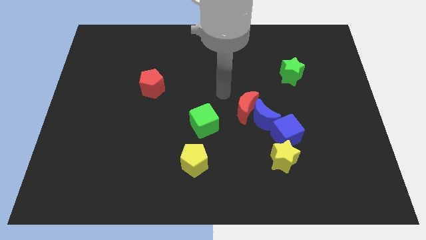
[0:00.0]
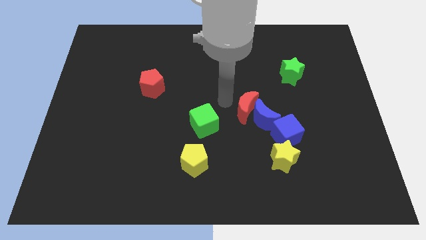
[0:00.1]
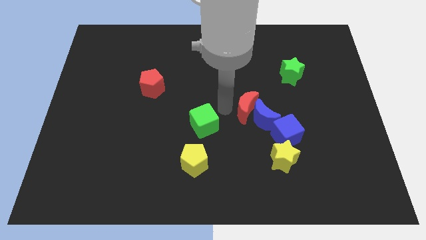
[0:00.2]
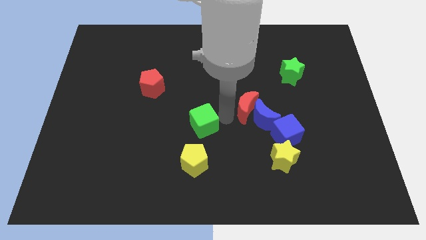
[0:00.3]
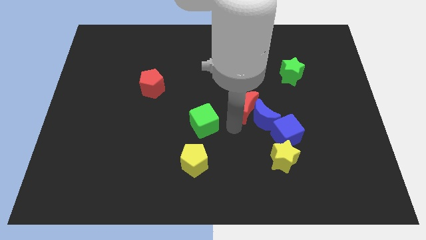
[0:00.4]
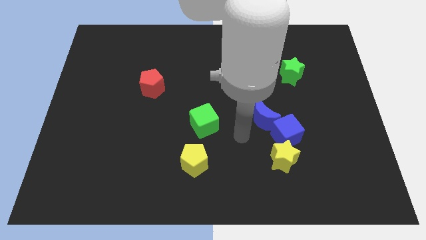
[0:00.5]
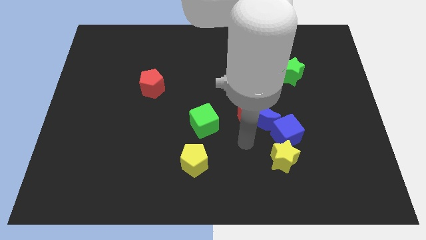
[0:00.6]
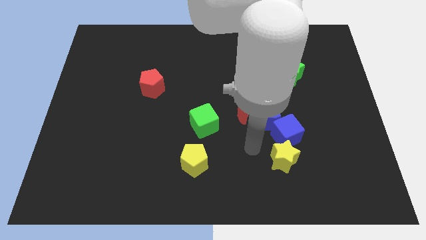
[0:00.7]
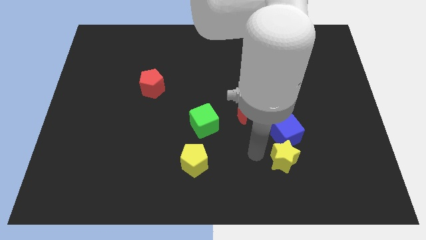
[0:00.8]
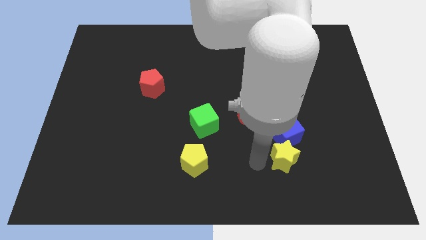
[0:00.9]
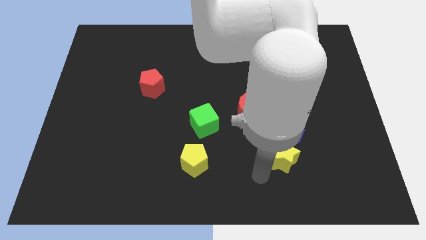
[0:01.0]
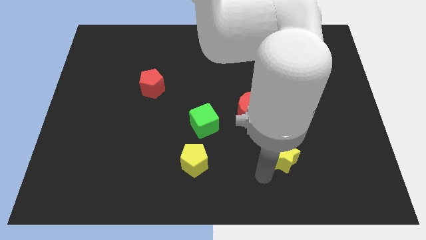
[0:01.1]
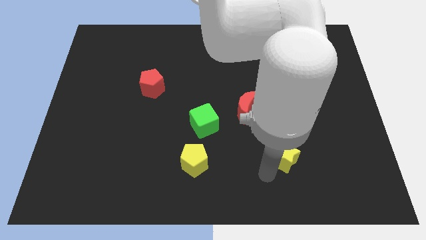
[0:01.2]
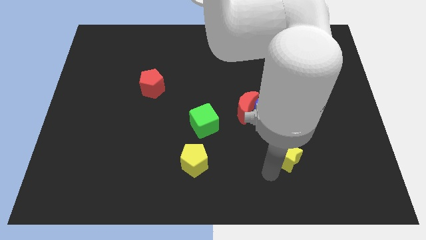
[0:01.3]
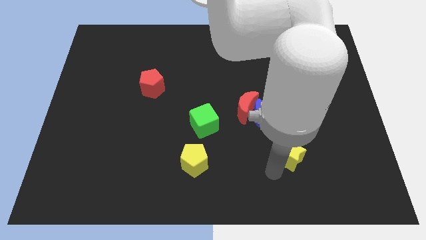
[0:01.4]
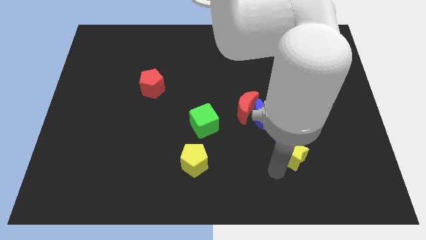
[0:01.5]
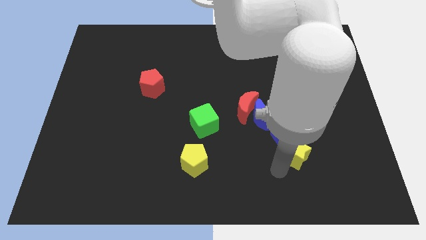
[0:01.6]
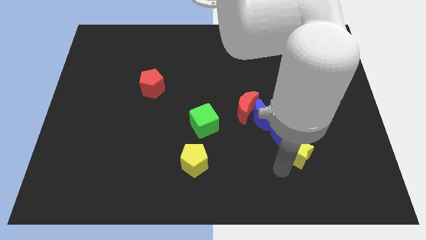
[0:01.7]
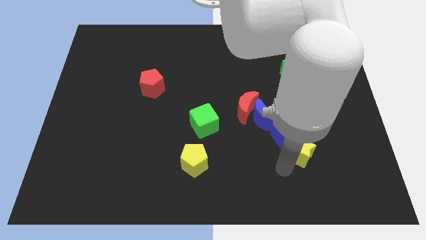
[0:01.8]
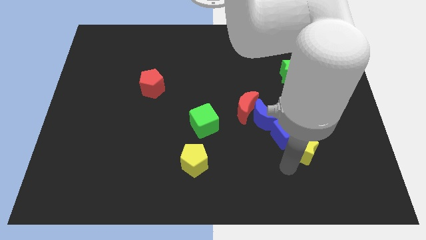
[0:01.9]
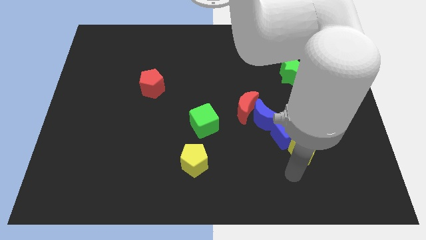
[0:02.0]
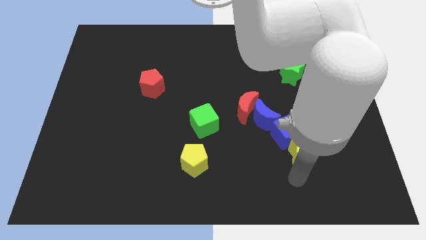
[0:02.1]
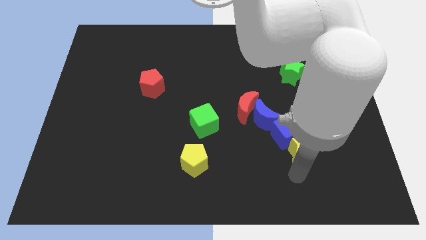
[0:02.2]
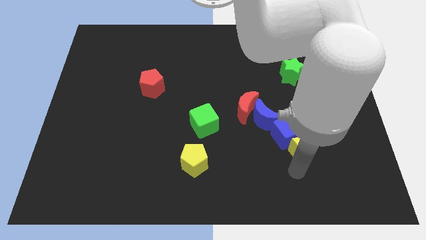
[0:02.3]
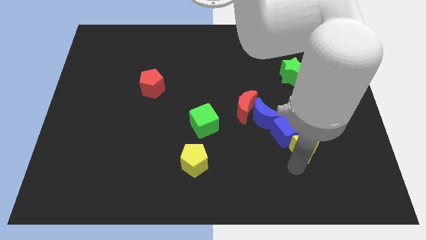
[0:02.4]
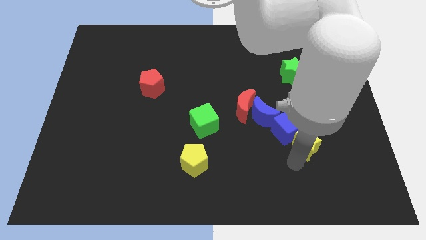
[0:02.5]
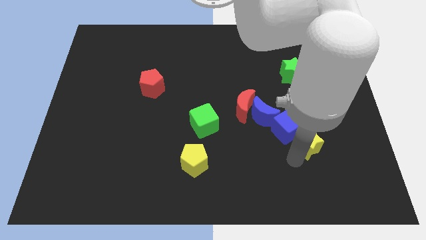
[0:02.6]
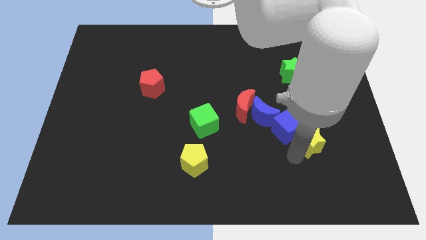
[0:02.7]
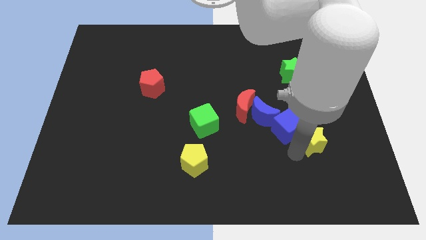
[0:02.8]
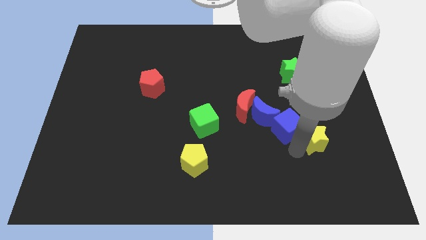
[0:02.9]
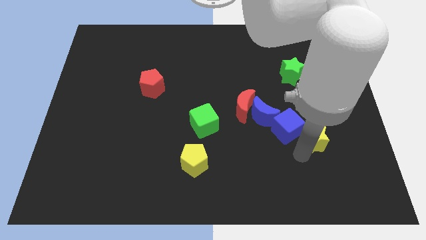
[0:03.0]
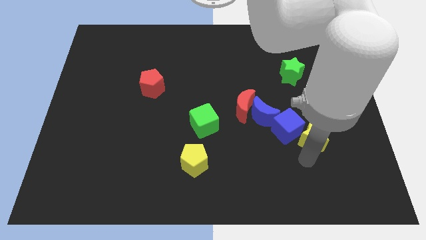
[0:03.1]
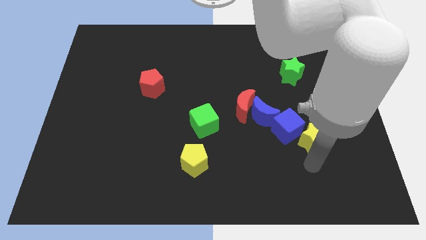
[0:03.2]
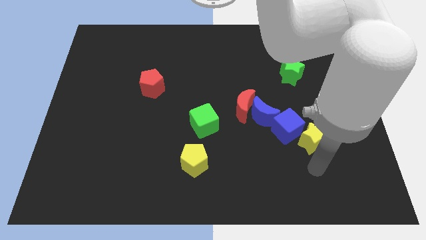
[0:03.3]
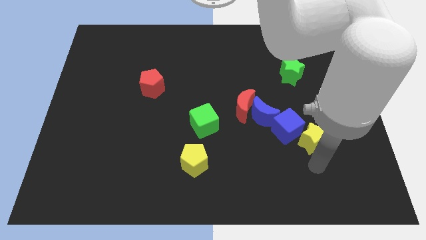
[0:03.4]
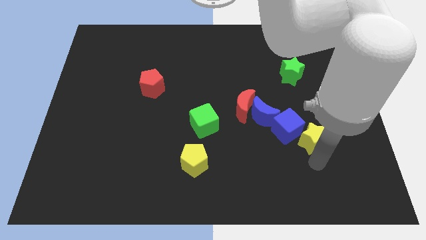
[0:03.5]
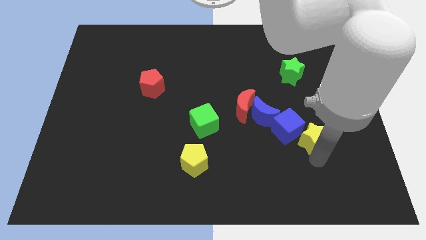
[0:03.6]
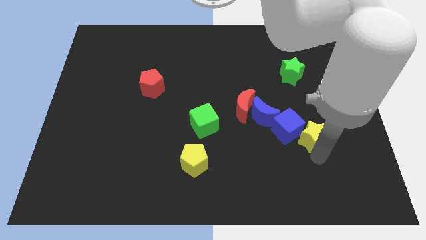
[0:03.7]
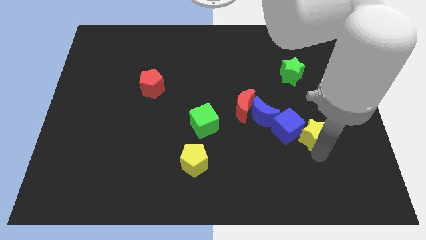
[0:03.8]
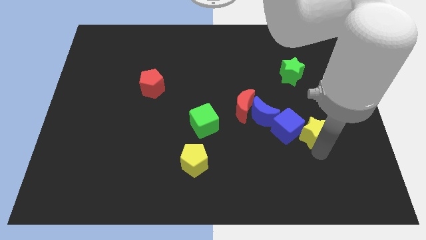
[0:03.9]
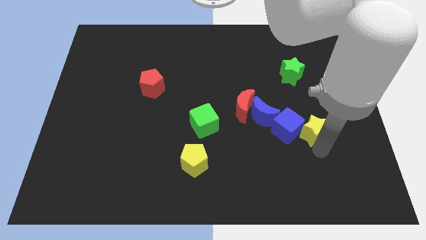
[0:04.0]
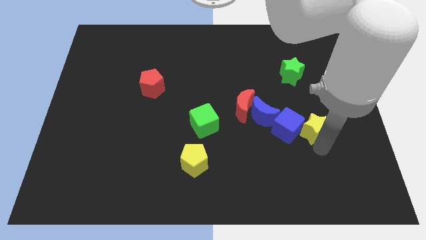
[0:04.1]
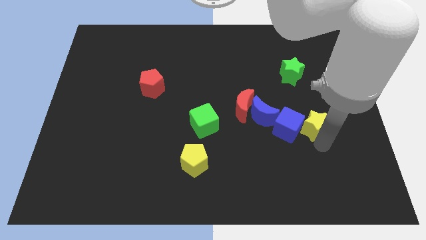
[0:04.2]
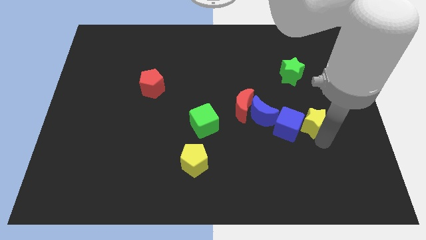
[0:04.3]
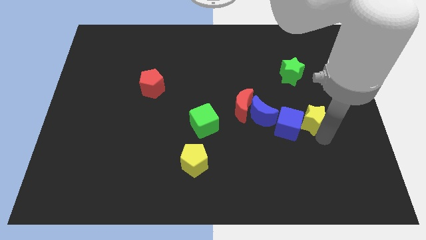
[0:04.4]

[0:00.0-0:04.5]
push the yellow star a little bit upwards

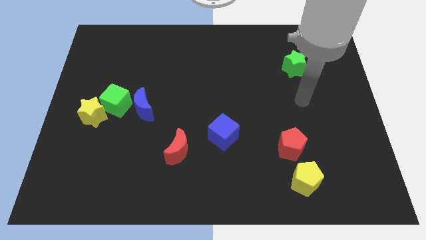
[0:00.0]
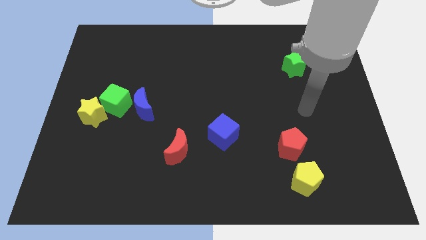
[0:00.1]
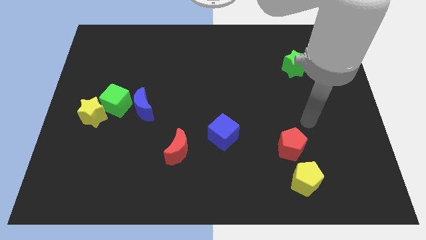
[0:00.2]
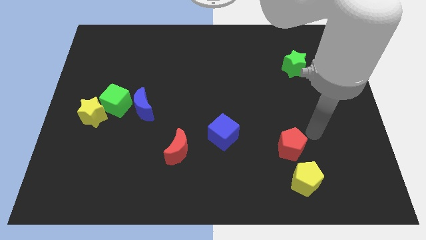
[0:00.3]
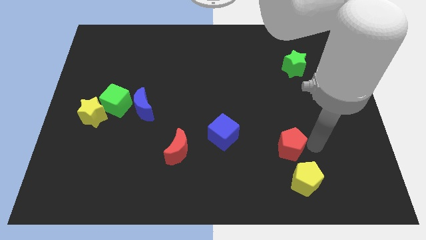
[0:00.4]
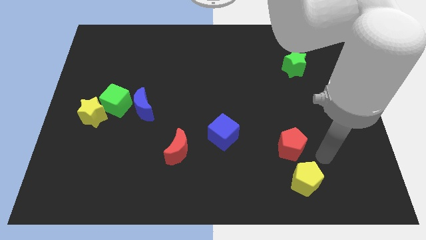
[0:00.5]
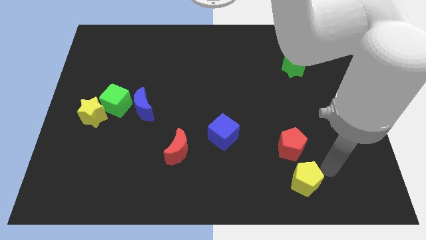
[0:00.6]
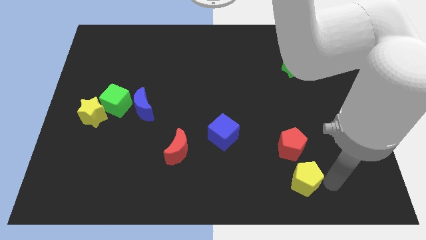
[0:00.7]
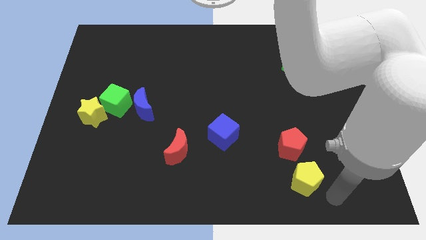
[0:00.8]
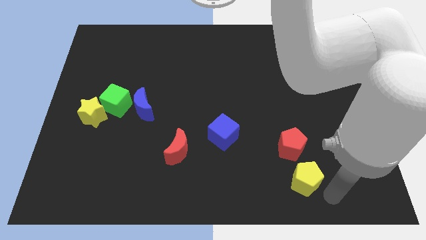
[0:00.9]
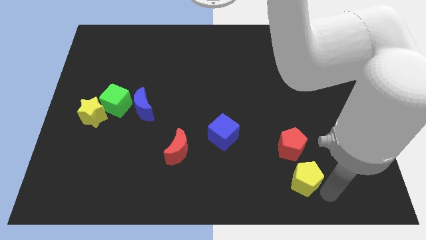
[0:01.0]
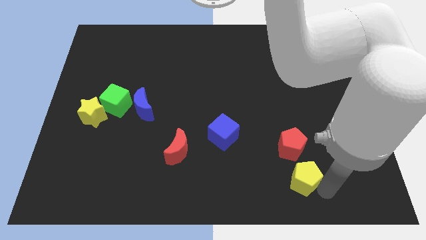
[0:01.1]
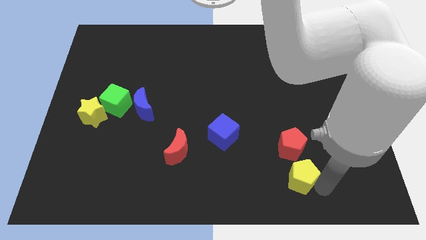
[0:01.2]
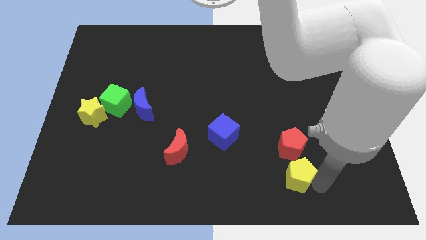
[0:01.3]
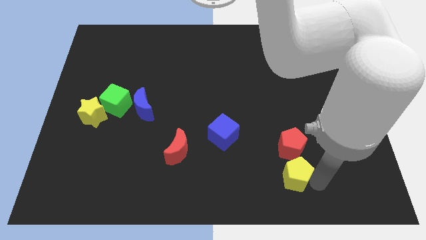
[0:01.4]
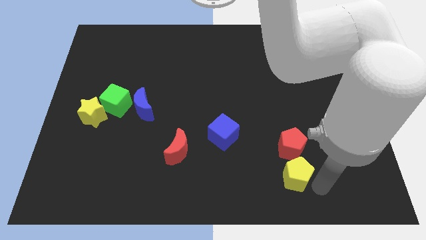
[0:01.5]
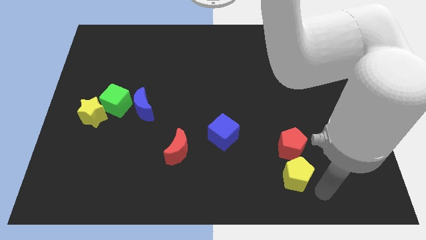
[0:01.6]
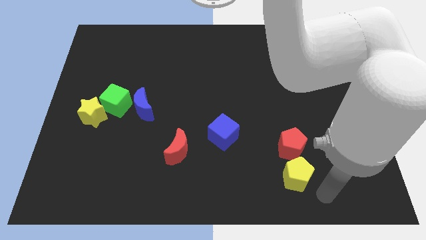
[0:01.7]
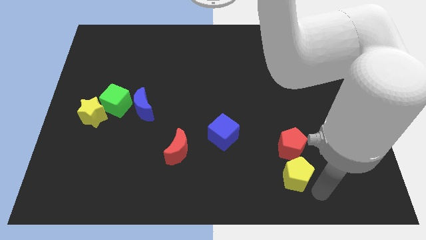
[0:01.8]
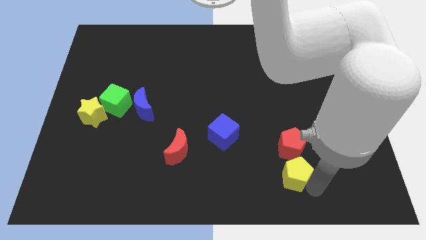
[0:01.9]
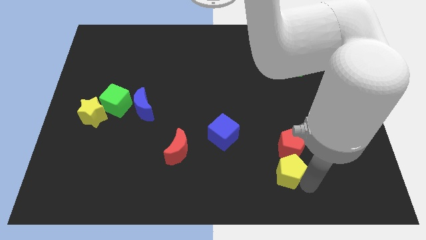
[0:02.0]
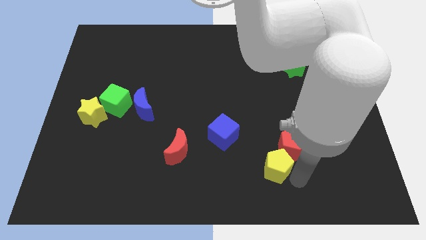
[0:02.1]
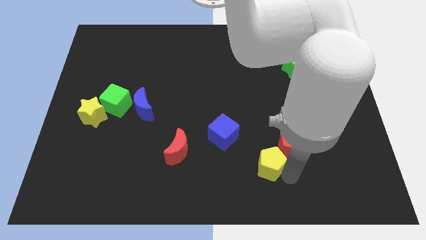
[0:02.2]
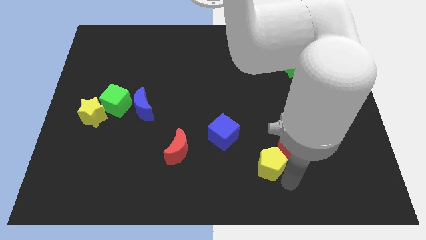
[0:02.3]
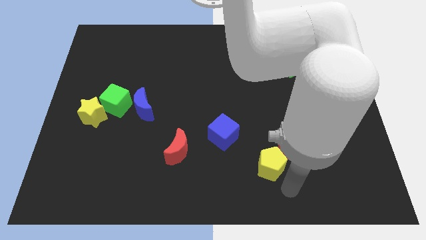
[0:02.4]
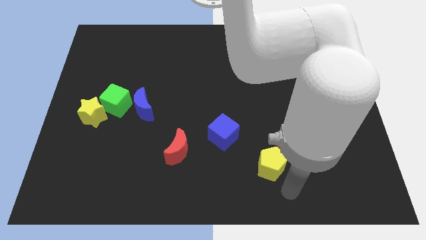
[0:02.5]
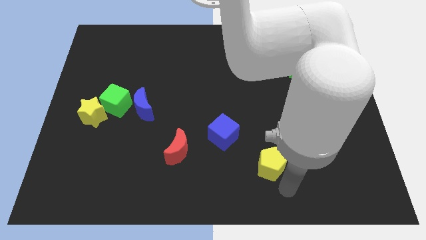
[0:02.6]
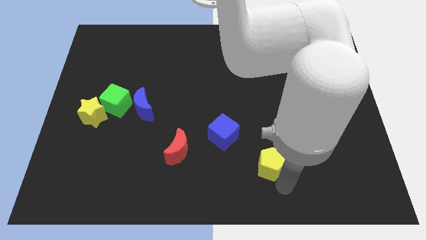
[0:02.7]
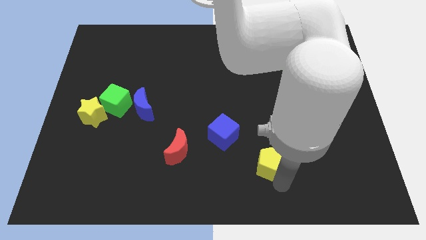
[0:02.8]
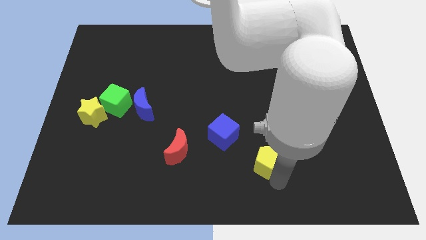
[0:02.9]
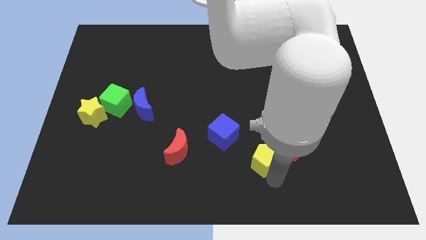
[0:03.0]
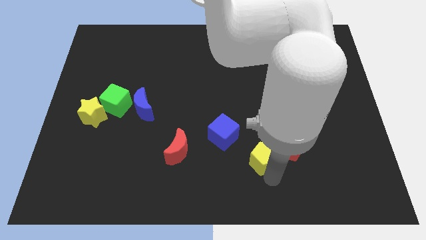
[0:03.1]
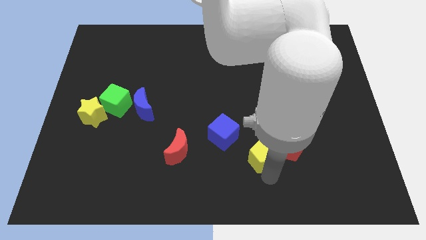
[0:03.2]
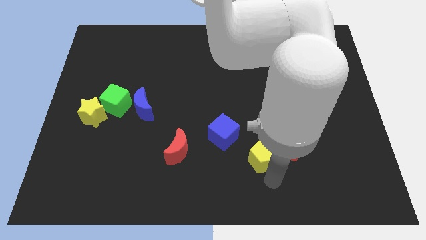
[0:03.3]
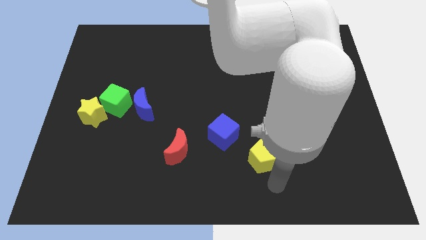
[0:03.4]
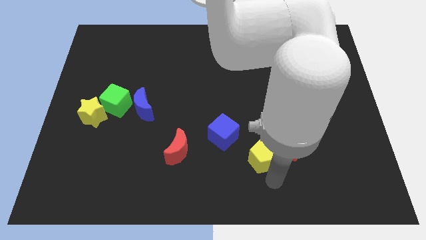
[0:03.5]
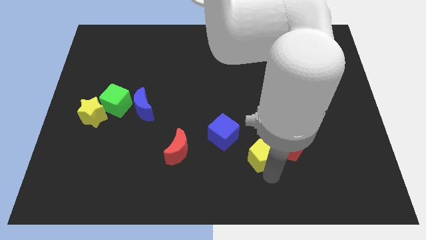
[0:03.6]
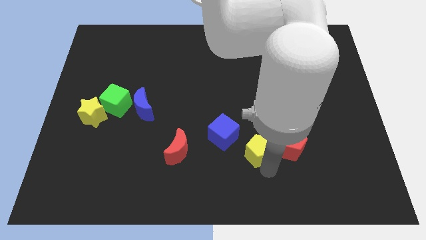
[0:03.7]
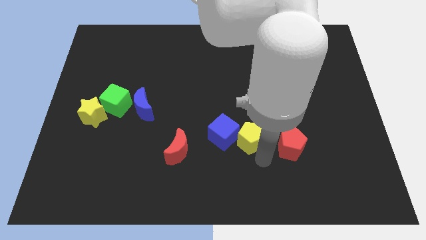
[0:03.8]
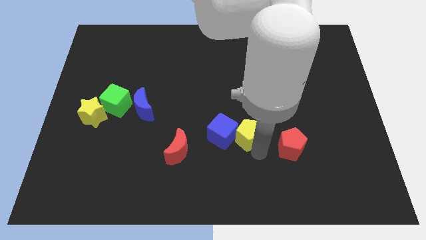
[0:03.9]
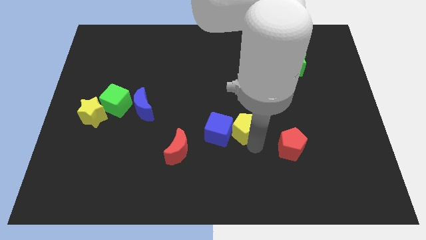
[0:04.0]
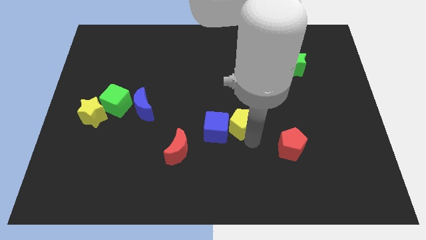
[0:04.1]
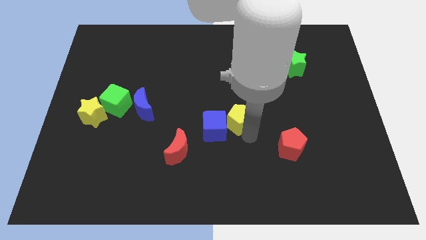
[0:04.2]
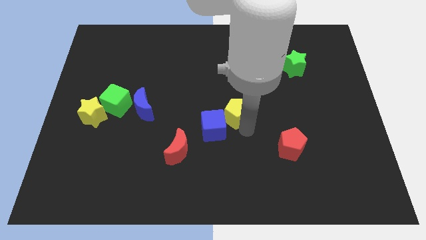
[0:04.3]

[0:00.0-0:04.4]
push the yellow pentagon diagonally upwards and left
